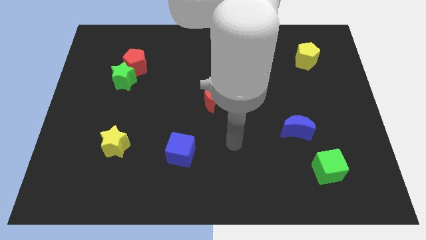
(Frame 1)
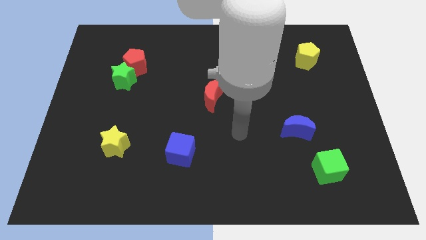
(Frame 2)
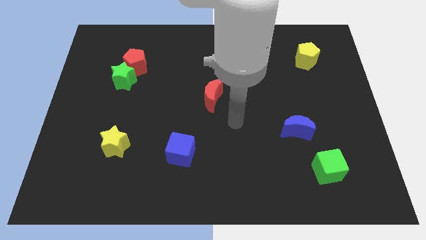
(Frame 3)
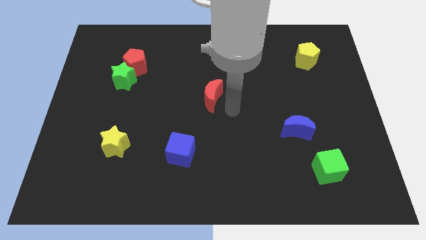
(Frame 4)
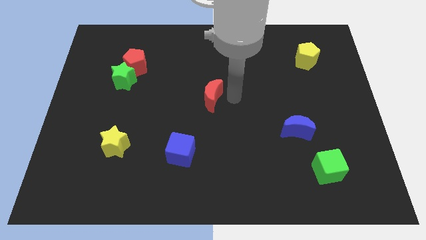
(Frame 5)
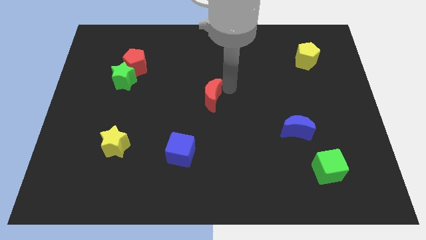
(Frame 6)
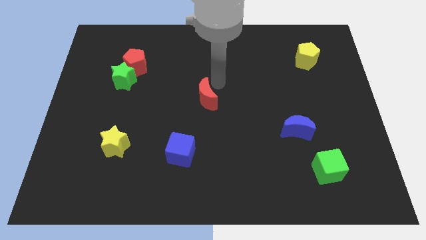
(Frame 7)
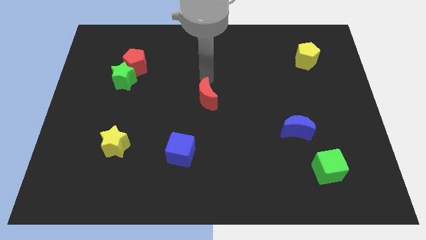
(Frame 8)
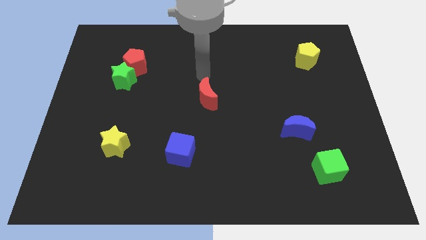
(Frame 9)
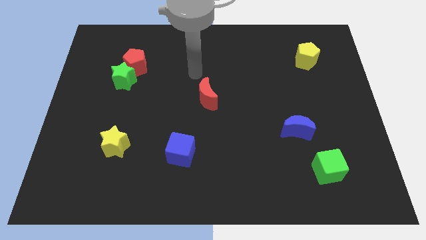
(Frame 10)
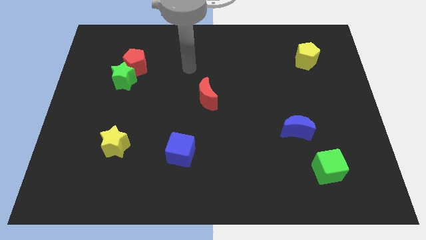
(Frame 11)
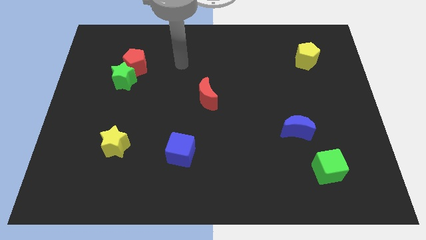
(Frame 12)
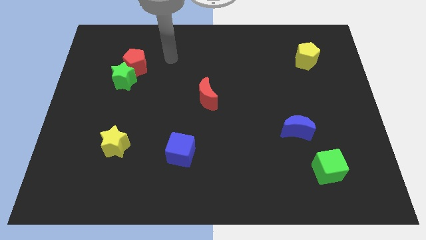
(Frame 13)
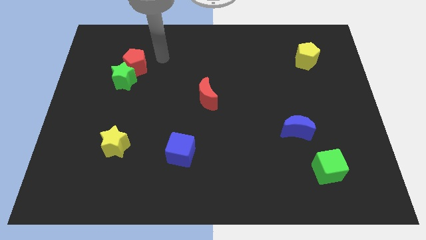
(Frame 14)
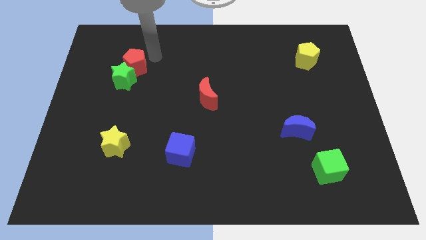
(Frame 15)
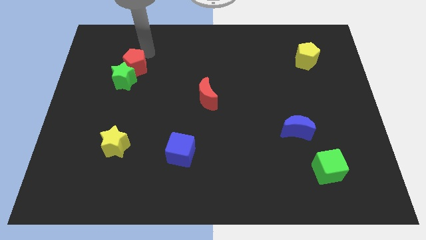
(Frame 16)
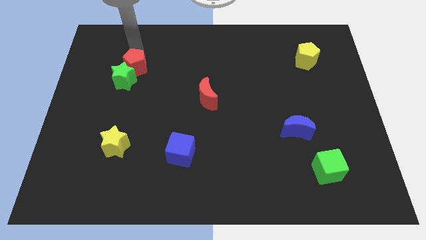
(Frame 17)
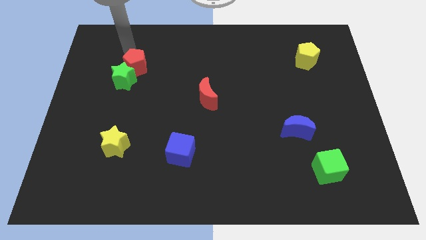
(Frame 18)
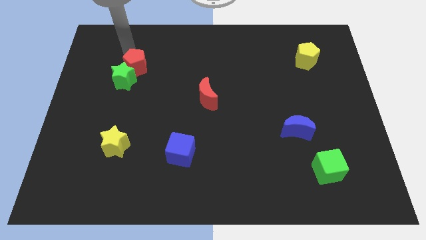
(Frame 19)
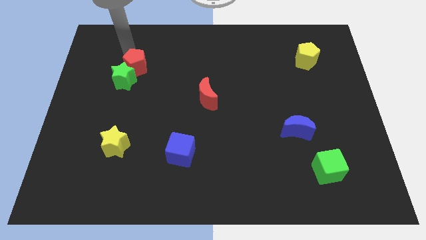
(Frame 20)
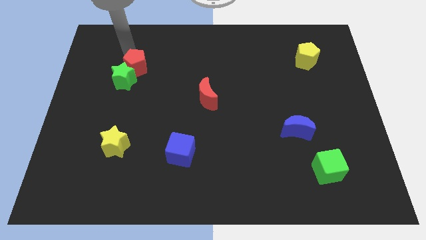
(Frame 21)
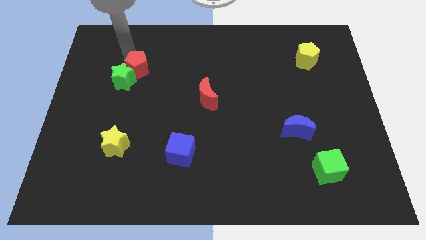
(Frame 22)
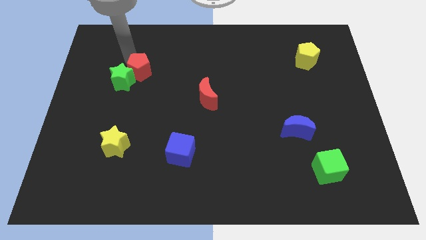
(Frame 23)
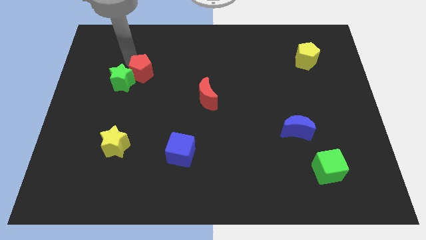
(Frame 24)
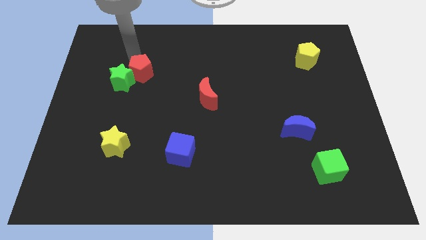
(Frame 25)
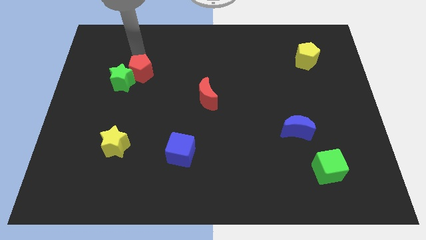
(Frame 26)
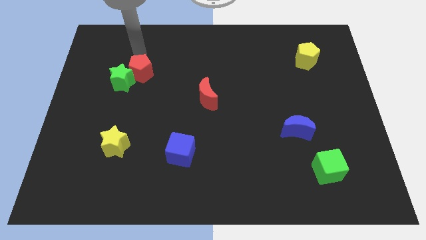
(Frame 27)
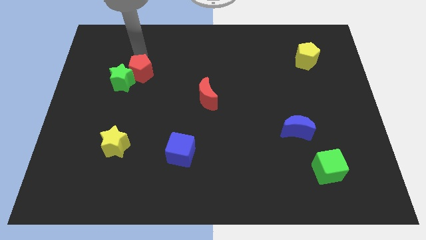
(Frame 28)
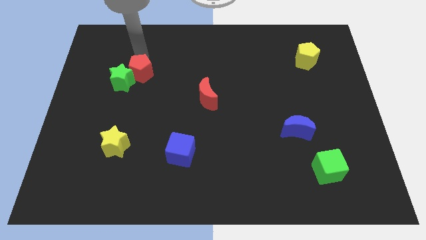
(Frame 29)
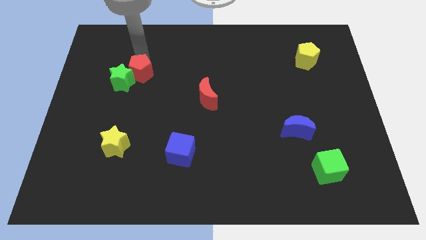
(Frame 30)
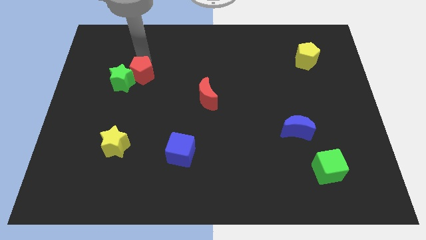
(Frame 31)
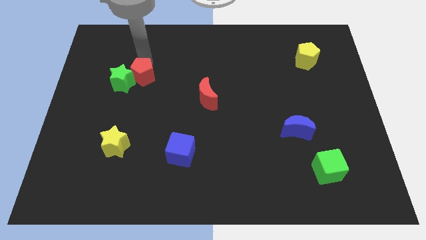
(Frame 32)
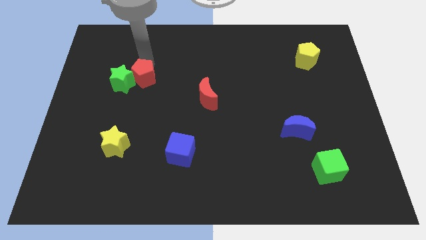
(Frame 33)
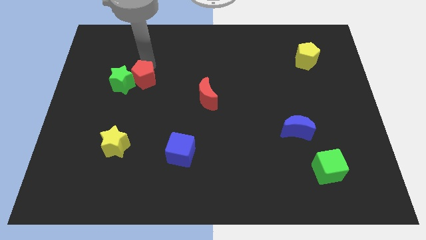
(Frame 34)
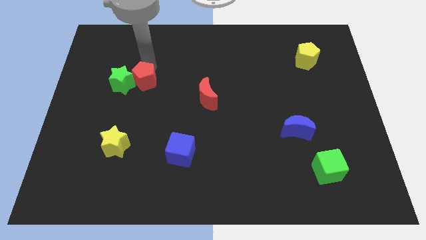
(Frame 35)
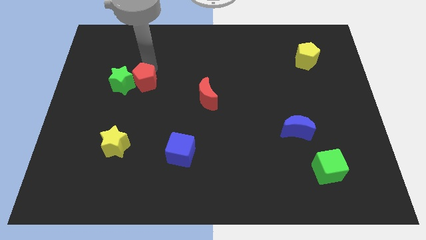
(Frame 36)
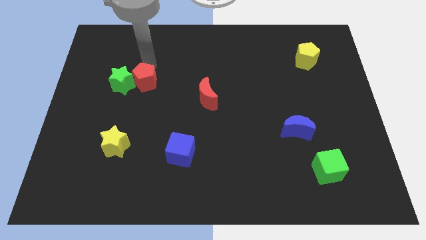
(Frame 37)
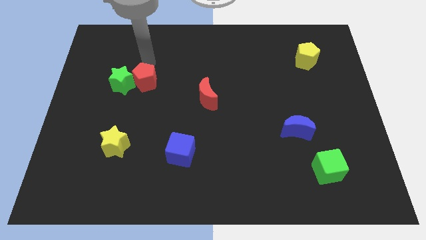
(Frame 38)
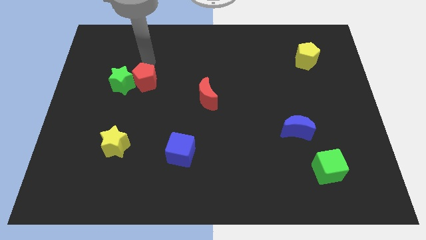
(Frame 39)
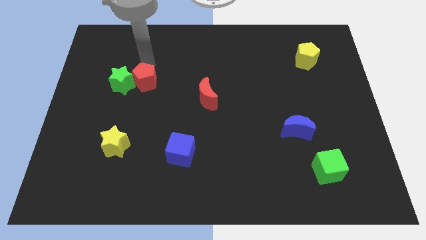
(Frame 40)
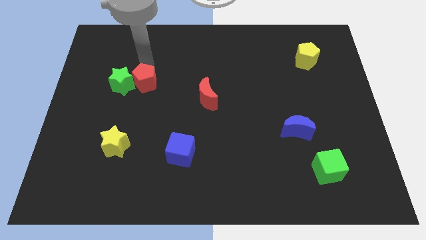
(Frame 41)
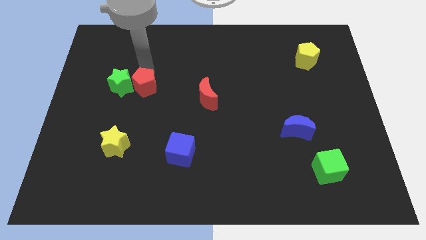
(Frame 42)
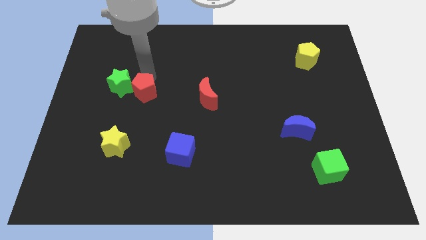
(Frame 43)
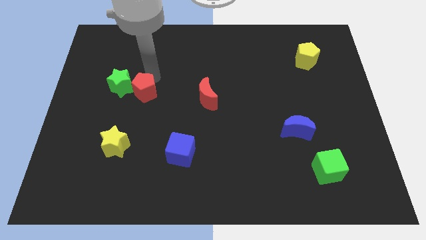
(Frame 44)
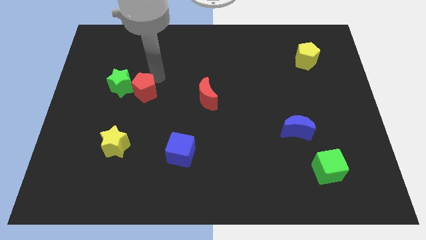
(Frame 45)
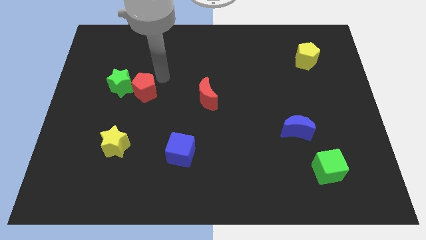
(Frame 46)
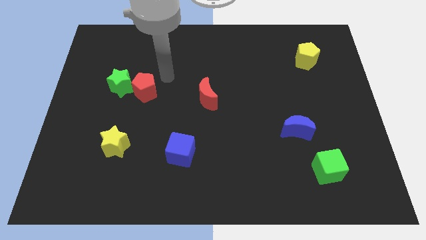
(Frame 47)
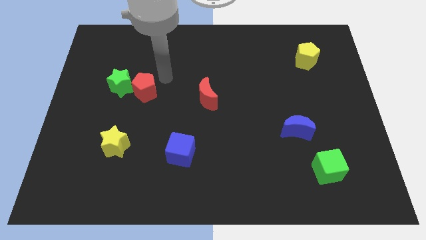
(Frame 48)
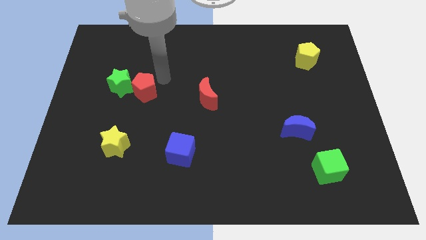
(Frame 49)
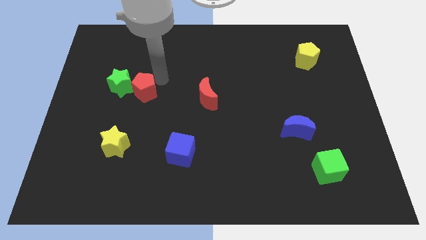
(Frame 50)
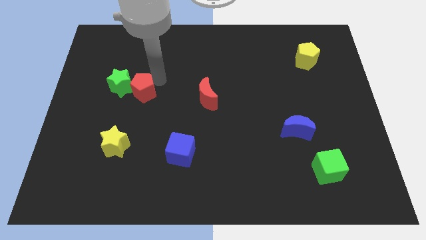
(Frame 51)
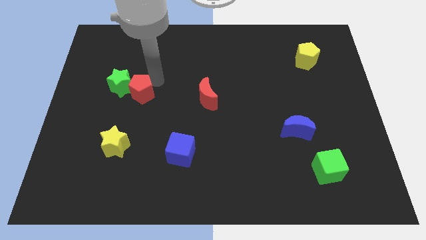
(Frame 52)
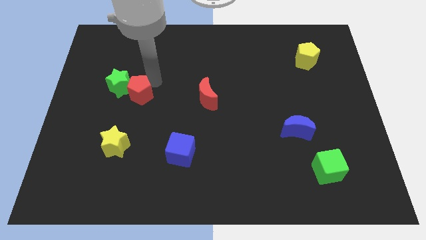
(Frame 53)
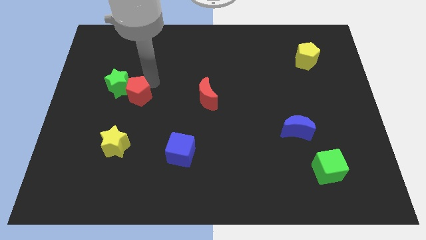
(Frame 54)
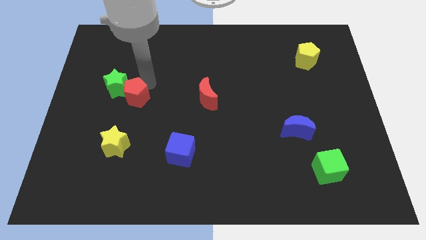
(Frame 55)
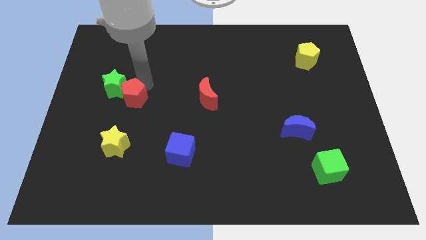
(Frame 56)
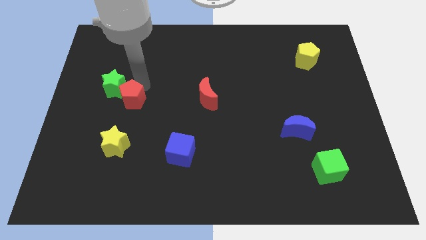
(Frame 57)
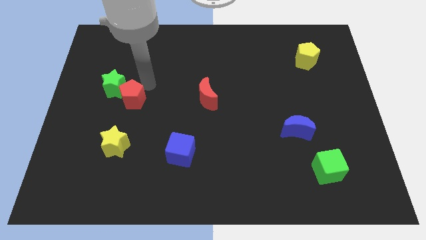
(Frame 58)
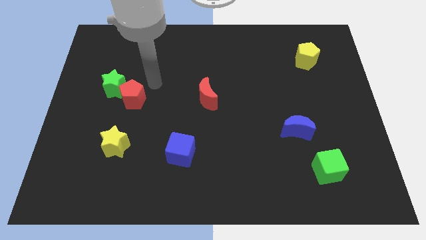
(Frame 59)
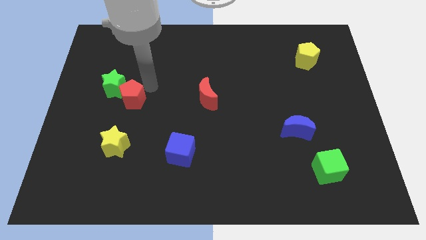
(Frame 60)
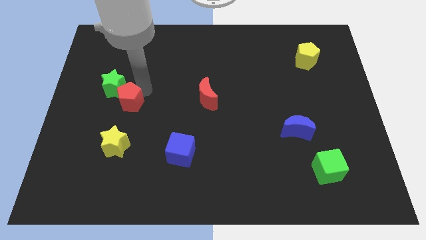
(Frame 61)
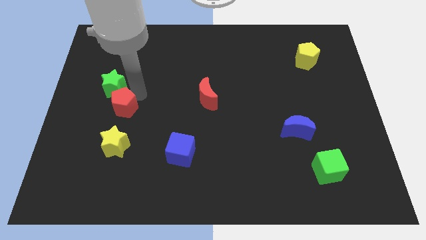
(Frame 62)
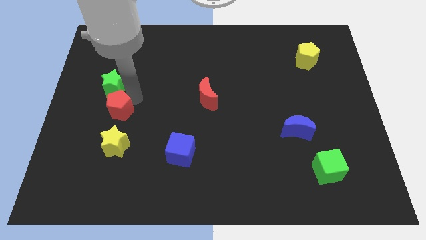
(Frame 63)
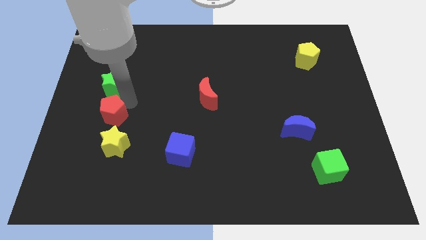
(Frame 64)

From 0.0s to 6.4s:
move the red pentagon to the top left of the yellow star

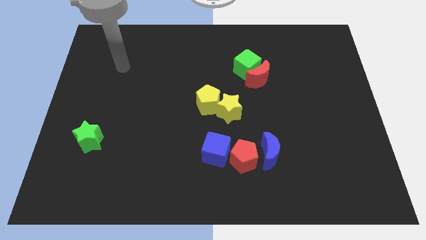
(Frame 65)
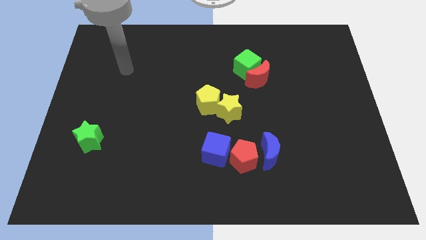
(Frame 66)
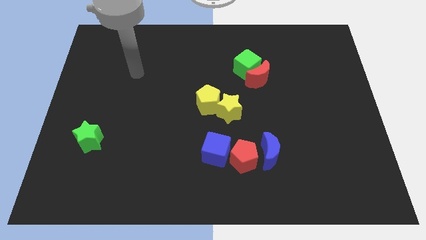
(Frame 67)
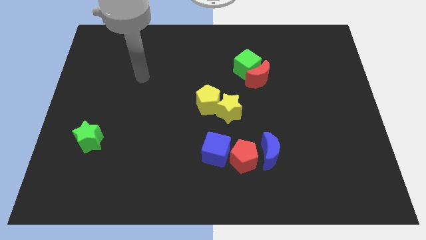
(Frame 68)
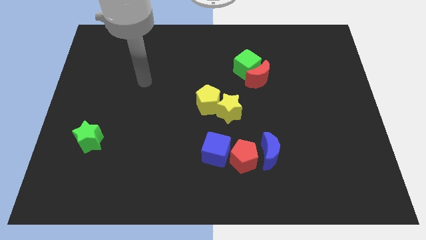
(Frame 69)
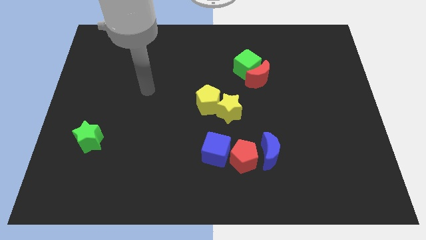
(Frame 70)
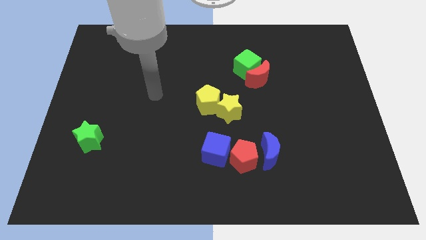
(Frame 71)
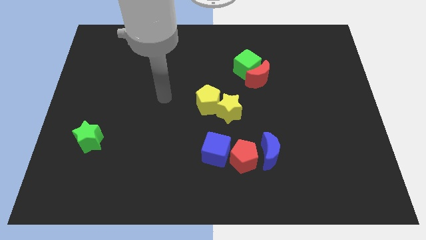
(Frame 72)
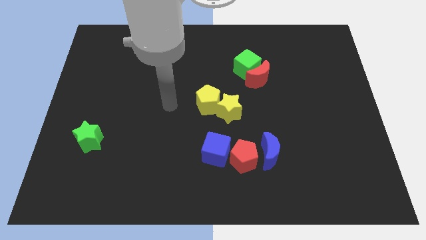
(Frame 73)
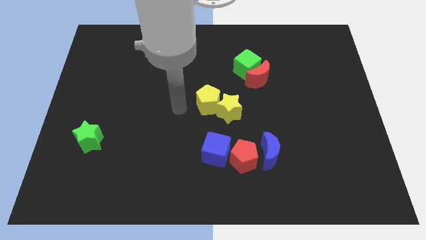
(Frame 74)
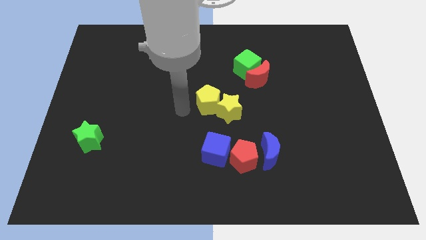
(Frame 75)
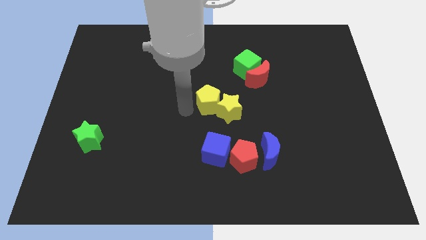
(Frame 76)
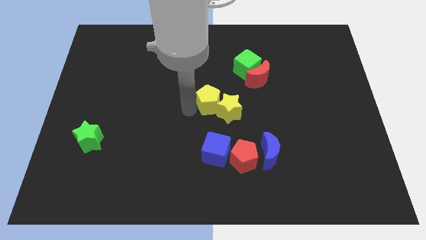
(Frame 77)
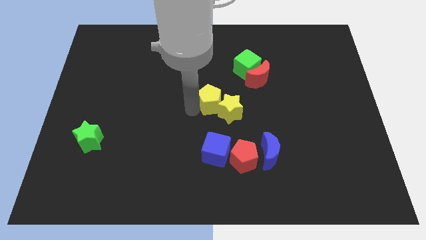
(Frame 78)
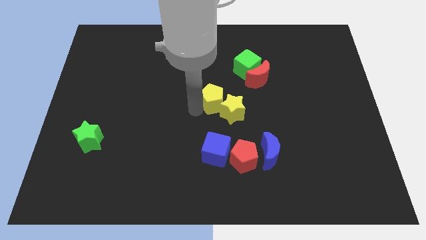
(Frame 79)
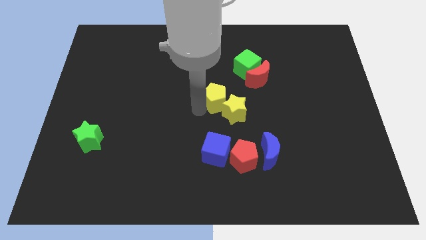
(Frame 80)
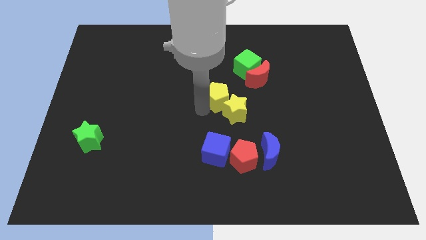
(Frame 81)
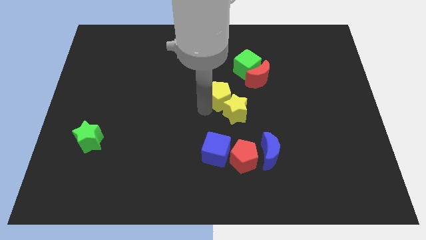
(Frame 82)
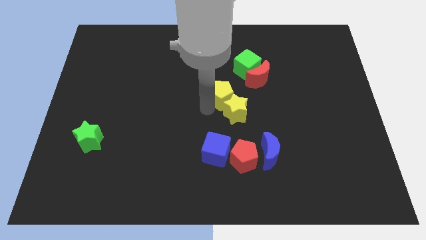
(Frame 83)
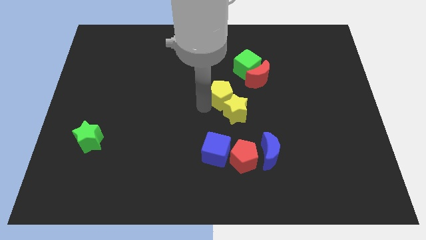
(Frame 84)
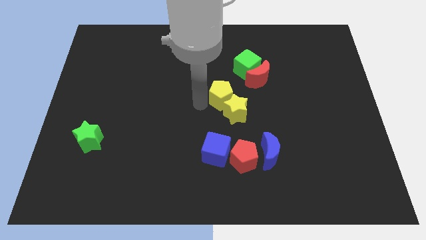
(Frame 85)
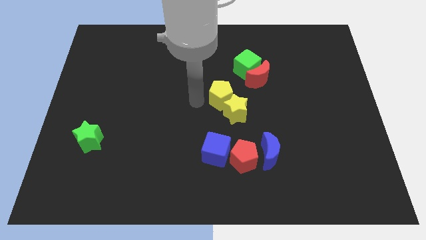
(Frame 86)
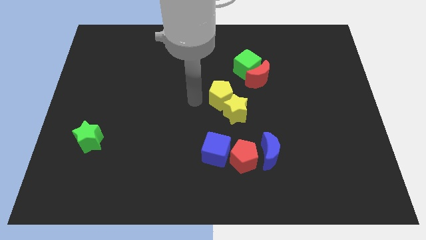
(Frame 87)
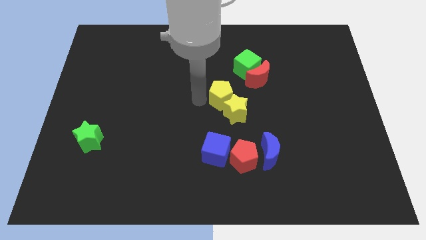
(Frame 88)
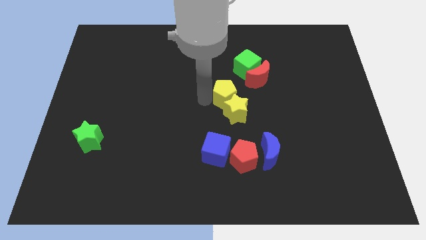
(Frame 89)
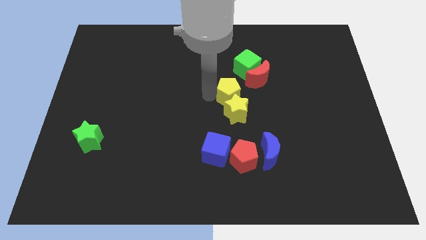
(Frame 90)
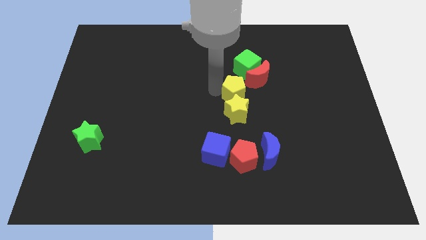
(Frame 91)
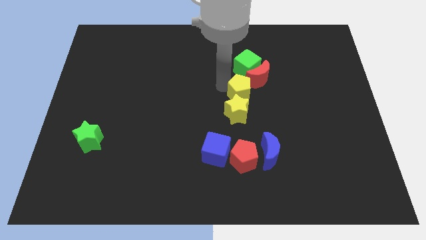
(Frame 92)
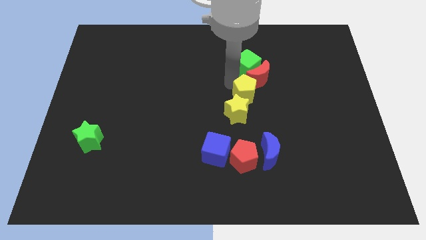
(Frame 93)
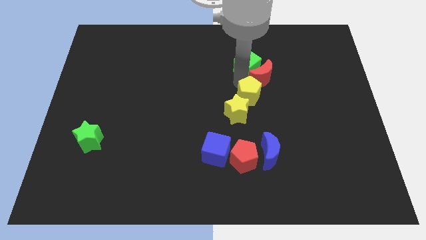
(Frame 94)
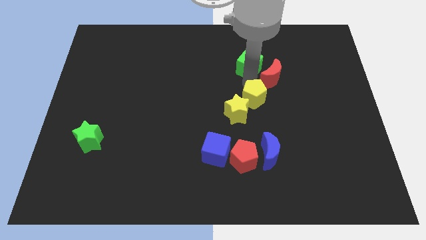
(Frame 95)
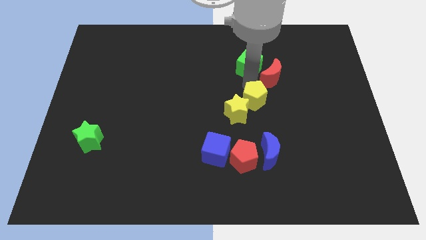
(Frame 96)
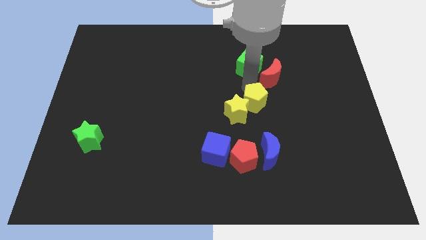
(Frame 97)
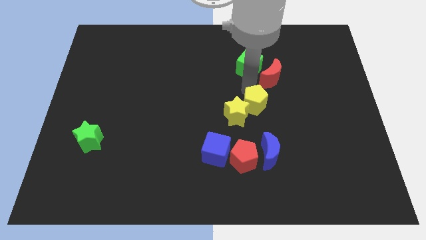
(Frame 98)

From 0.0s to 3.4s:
move the yellow pentagon above the red pentagon
